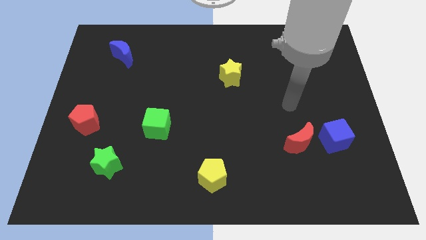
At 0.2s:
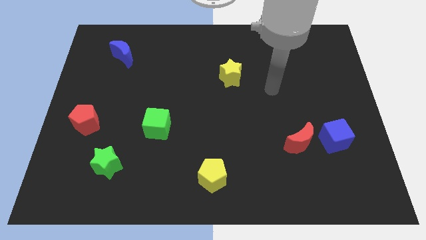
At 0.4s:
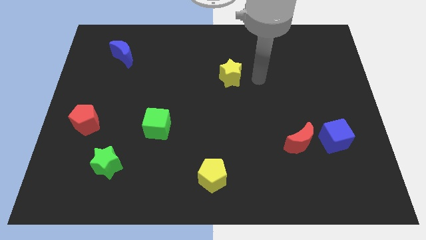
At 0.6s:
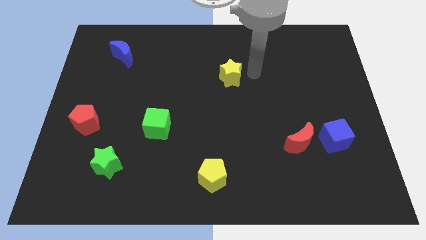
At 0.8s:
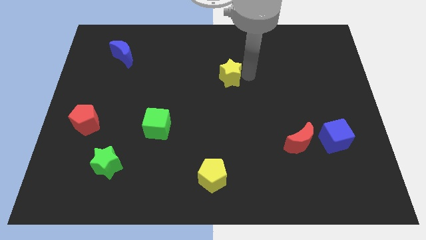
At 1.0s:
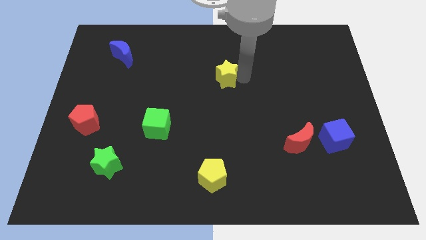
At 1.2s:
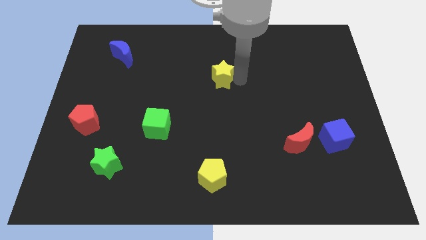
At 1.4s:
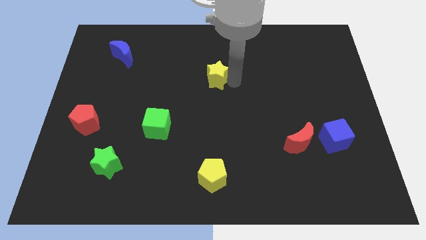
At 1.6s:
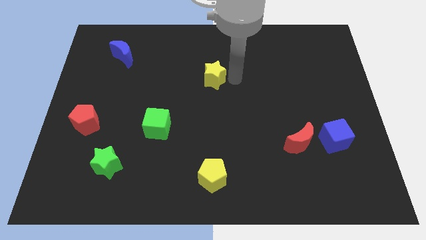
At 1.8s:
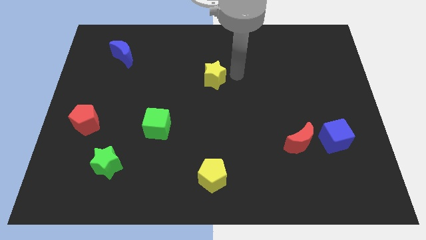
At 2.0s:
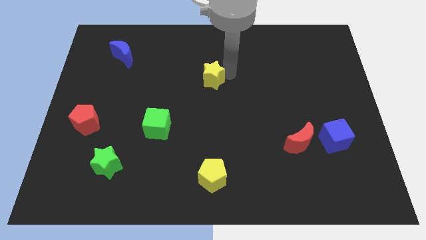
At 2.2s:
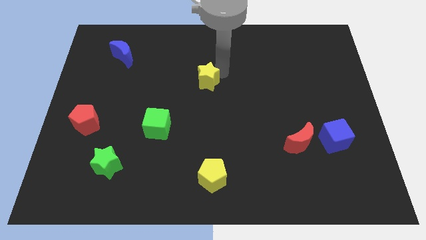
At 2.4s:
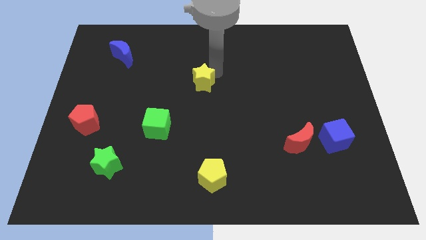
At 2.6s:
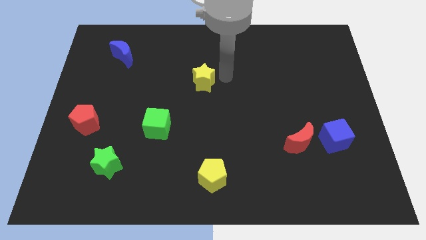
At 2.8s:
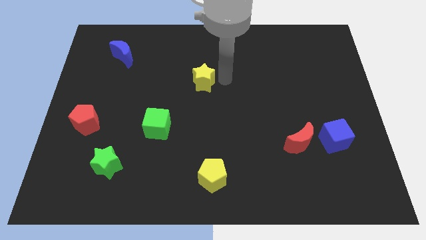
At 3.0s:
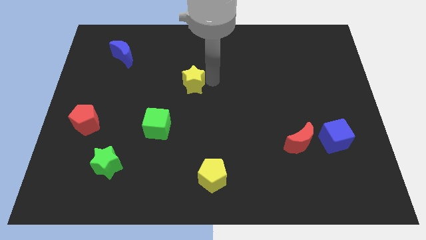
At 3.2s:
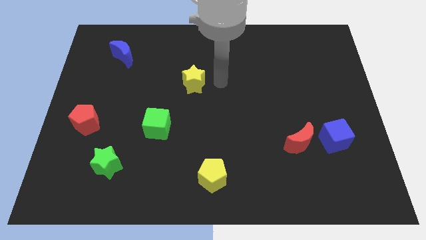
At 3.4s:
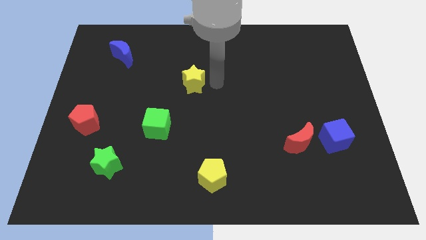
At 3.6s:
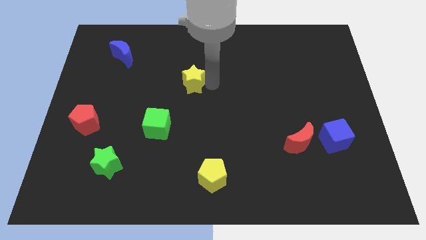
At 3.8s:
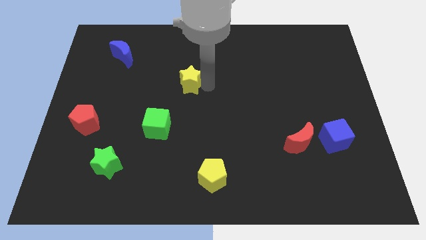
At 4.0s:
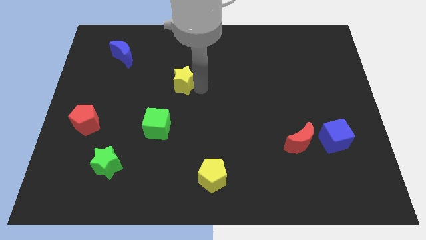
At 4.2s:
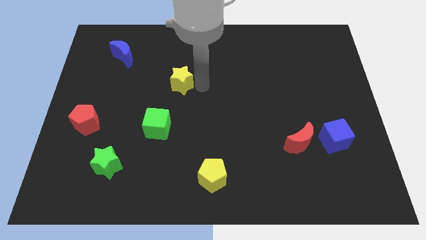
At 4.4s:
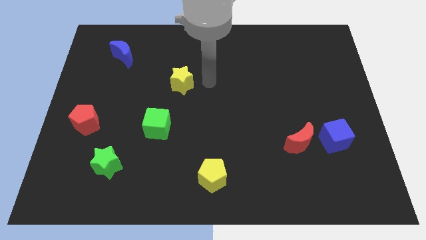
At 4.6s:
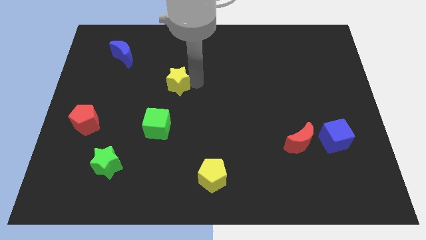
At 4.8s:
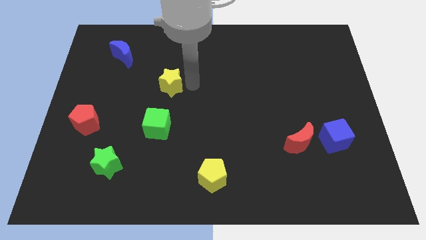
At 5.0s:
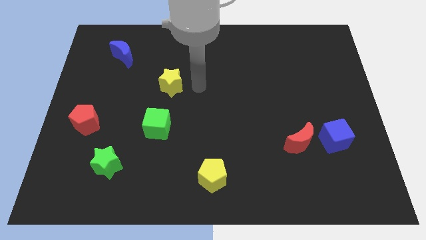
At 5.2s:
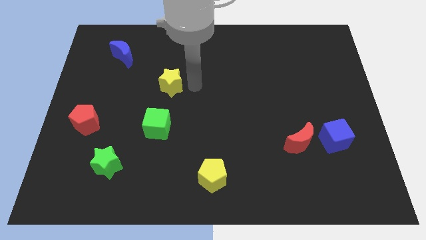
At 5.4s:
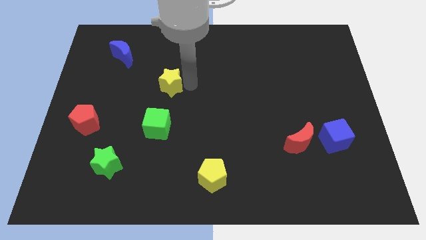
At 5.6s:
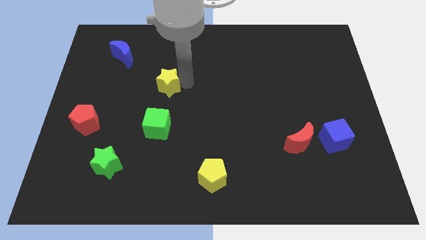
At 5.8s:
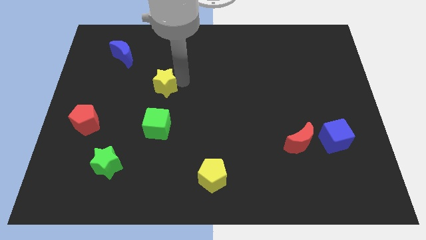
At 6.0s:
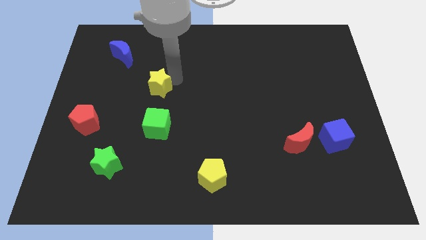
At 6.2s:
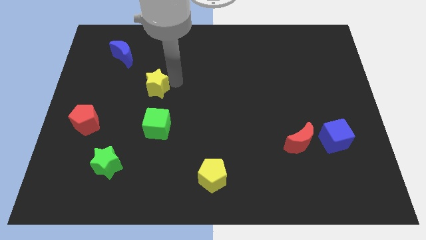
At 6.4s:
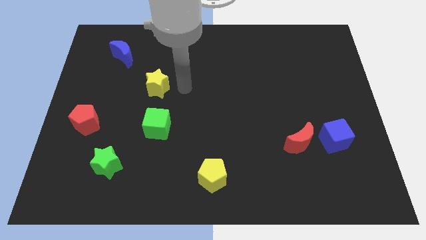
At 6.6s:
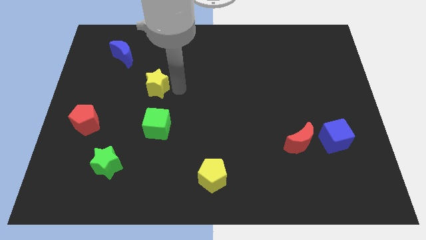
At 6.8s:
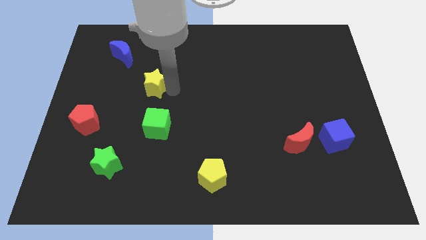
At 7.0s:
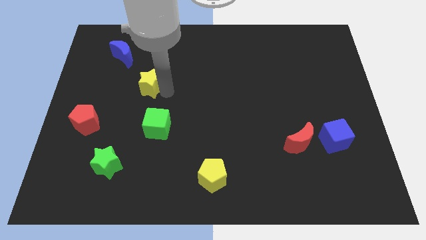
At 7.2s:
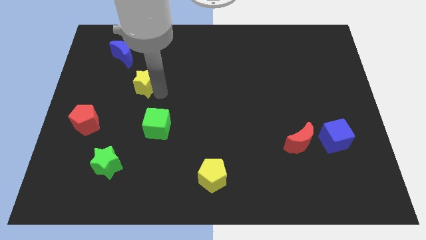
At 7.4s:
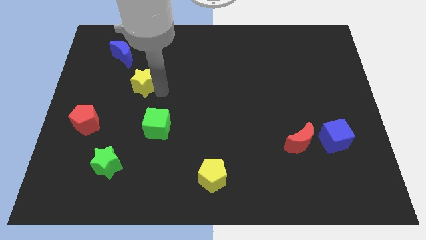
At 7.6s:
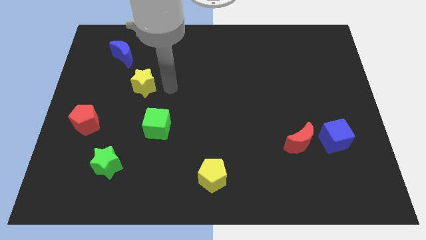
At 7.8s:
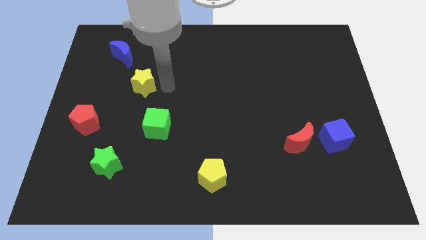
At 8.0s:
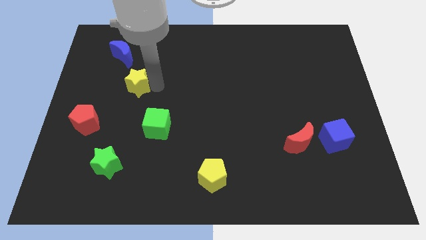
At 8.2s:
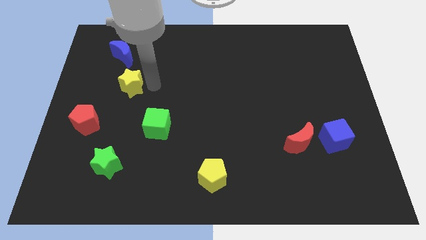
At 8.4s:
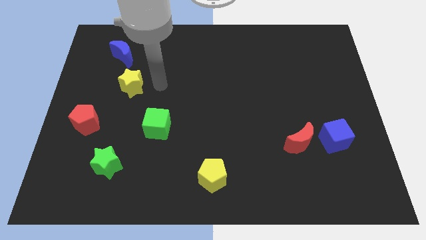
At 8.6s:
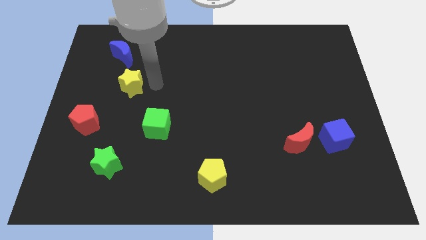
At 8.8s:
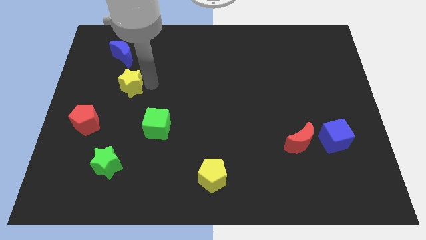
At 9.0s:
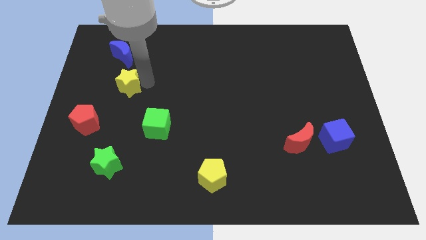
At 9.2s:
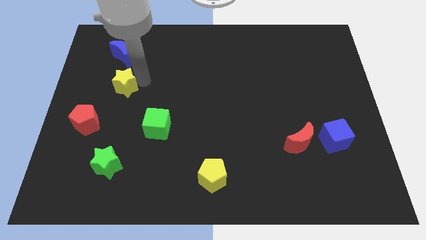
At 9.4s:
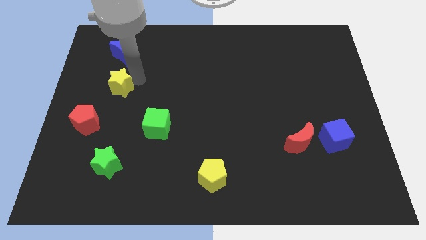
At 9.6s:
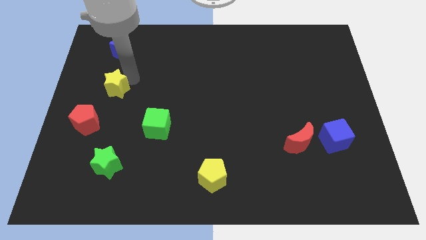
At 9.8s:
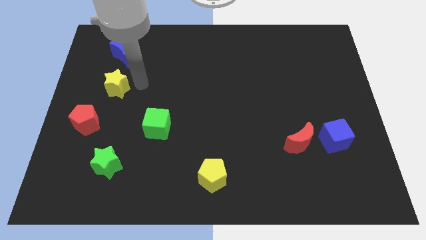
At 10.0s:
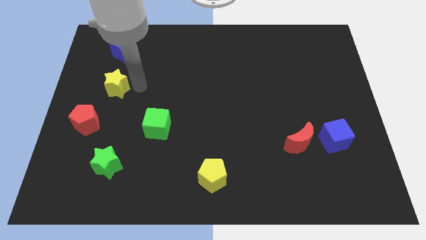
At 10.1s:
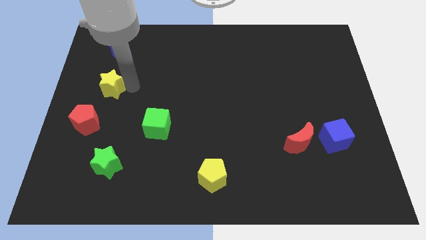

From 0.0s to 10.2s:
put the yellow star above the red pentagon

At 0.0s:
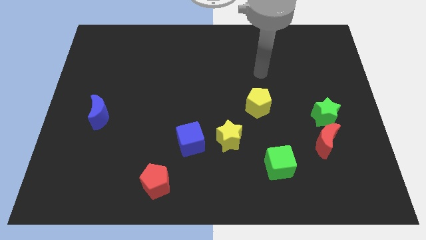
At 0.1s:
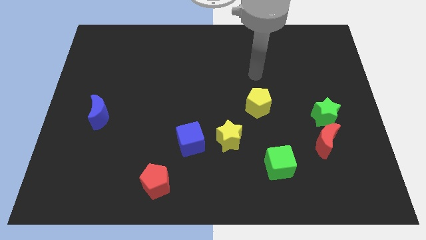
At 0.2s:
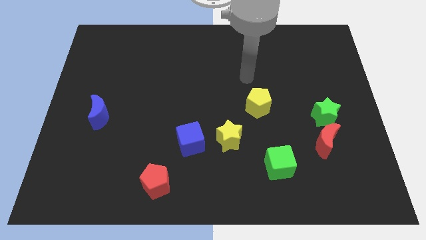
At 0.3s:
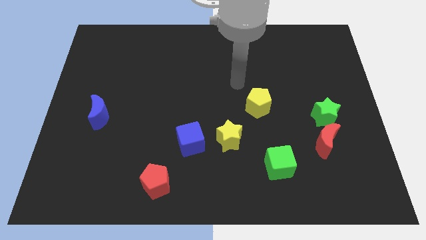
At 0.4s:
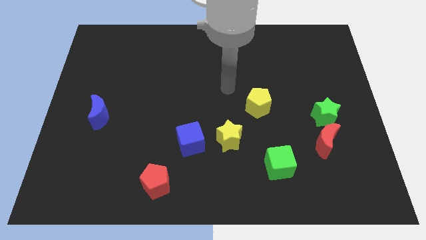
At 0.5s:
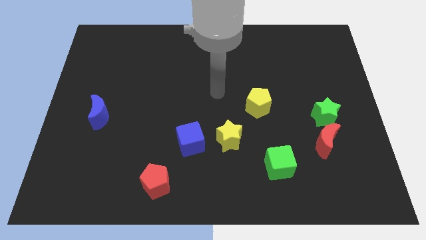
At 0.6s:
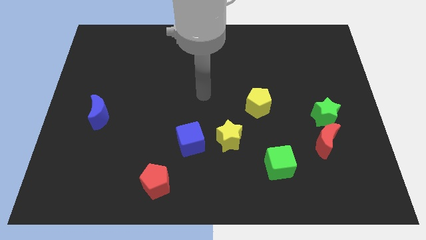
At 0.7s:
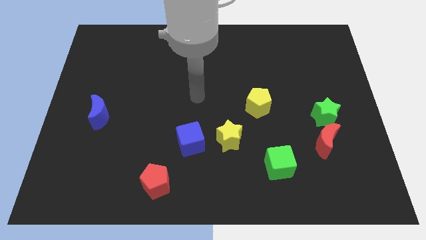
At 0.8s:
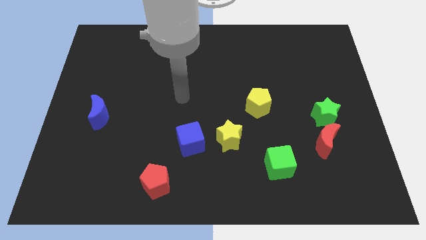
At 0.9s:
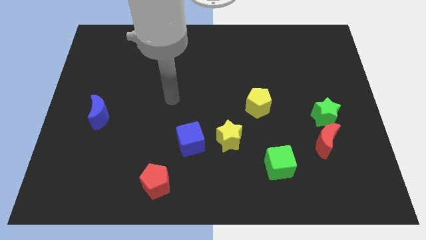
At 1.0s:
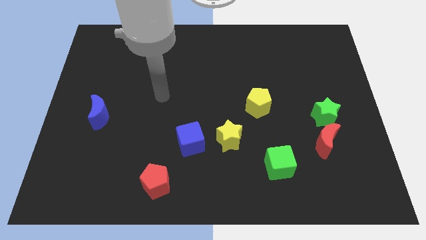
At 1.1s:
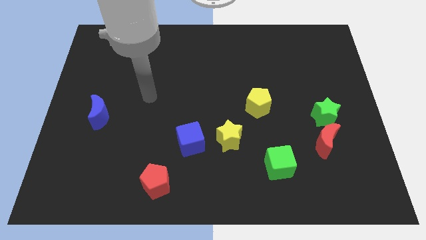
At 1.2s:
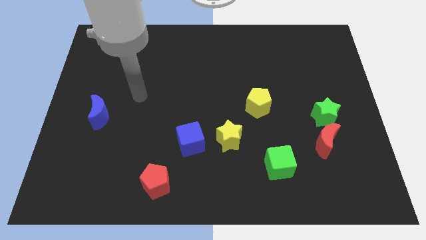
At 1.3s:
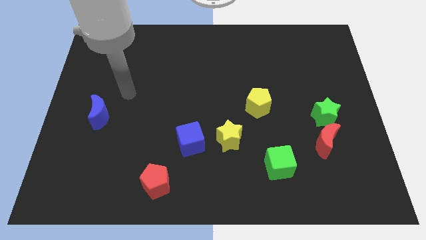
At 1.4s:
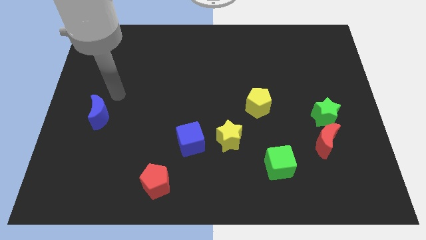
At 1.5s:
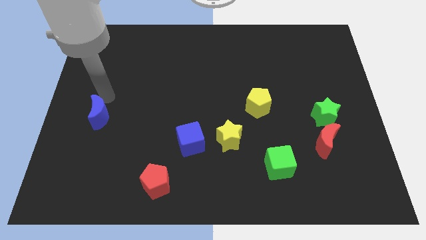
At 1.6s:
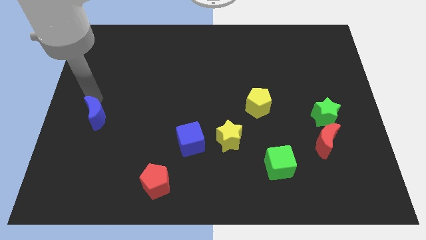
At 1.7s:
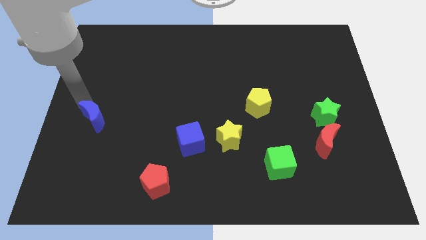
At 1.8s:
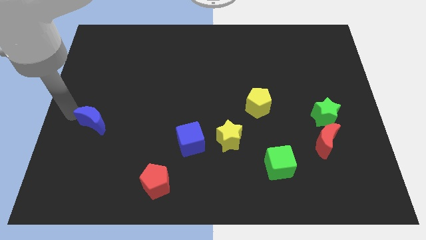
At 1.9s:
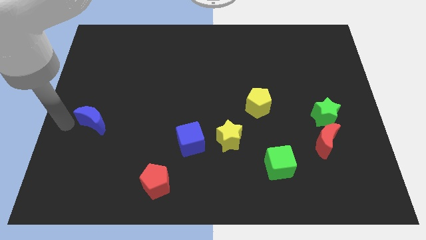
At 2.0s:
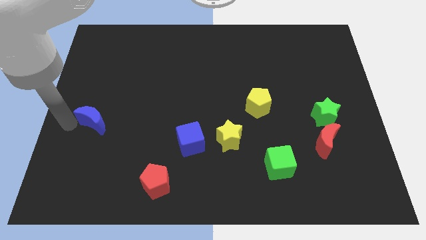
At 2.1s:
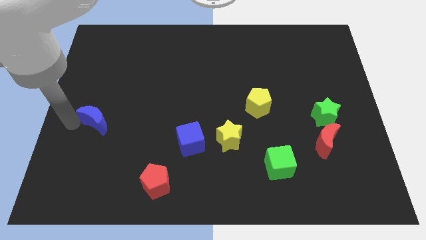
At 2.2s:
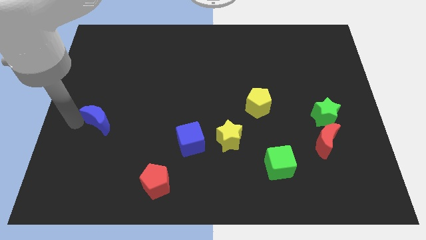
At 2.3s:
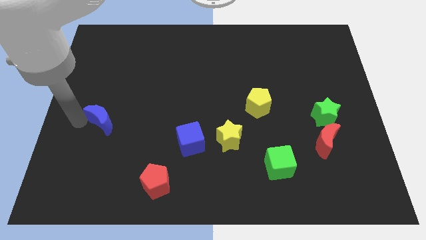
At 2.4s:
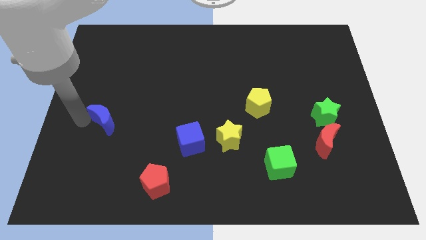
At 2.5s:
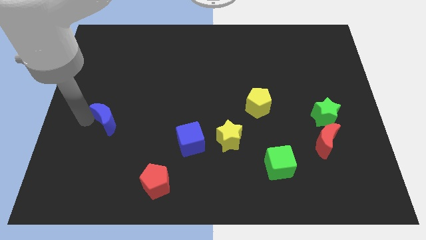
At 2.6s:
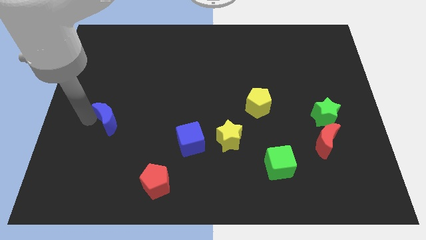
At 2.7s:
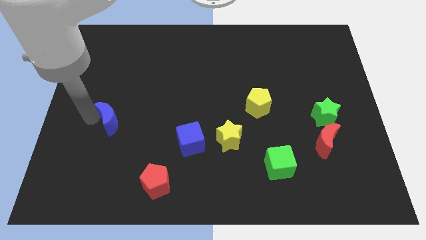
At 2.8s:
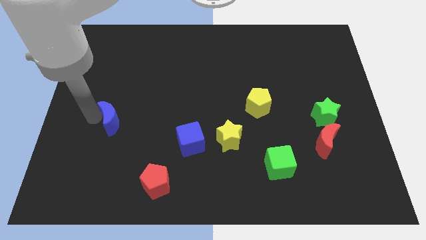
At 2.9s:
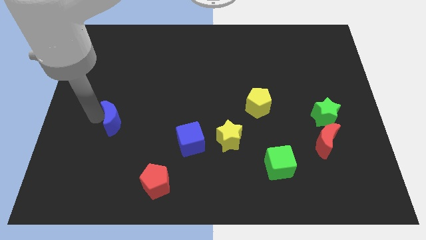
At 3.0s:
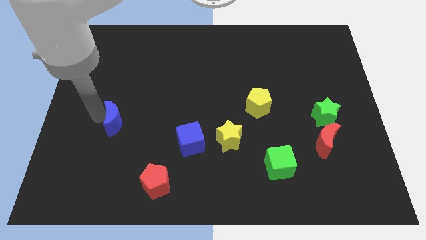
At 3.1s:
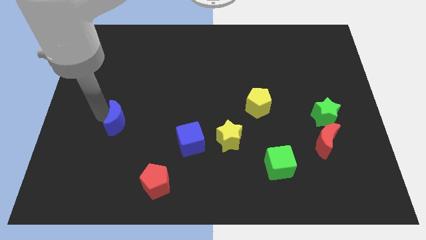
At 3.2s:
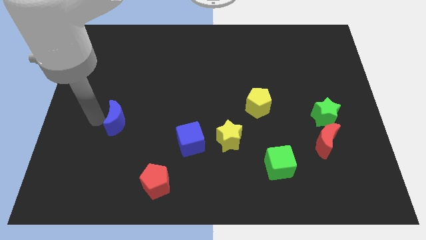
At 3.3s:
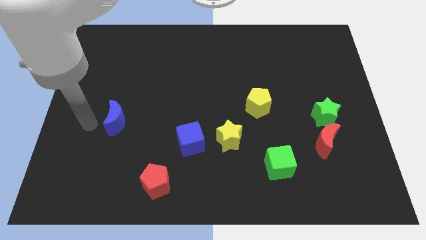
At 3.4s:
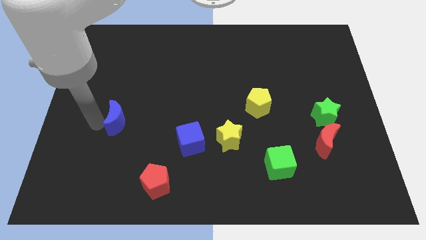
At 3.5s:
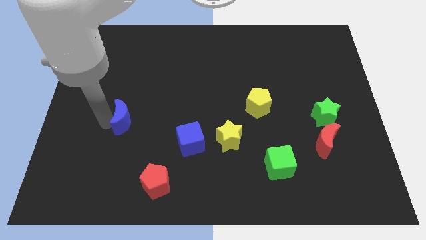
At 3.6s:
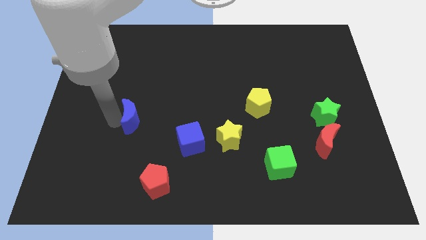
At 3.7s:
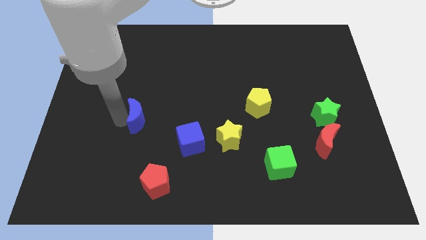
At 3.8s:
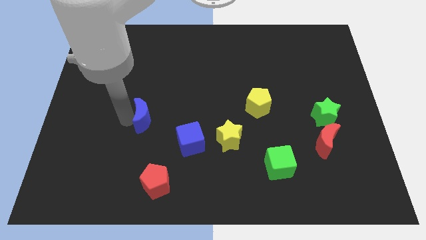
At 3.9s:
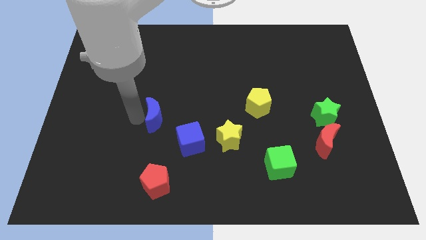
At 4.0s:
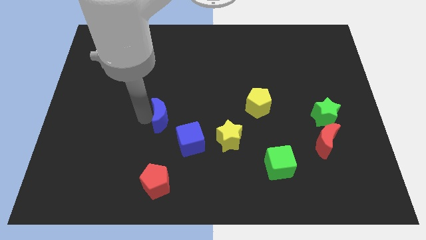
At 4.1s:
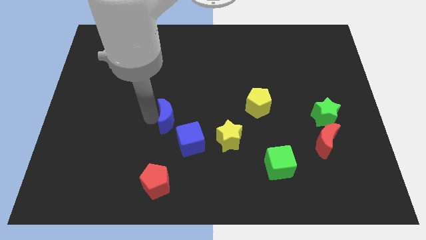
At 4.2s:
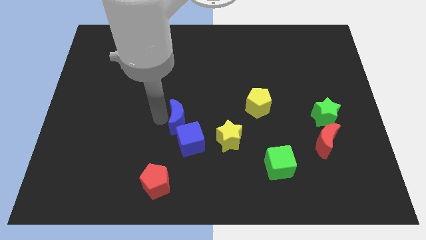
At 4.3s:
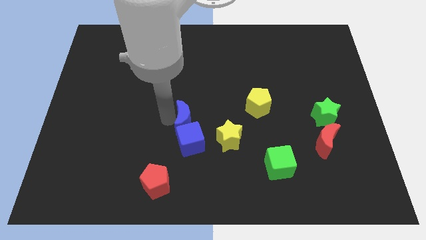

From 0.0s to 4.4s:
move the blue moon diagonally up and to the left of the yellow star
